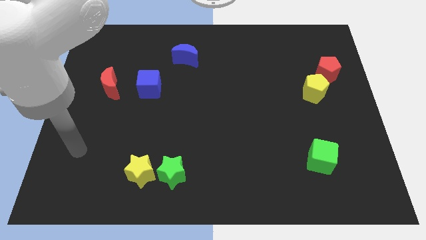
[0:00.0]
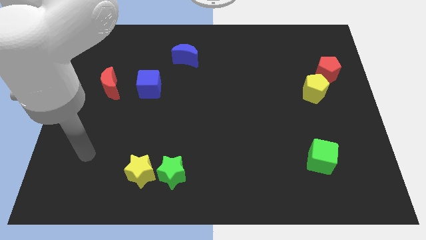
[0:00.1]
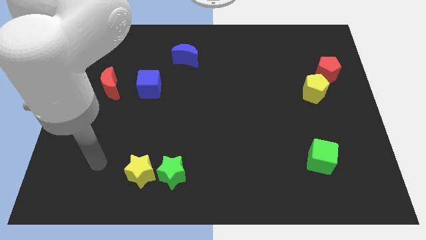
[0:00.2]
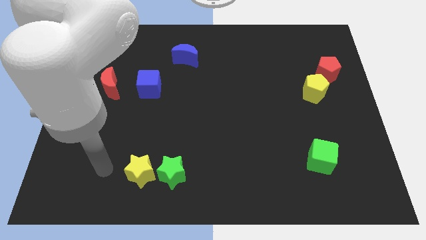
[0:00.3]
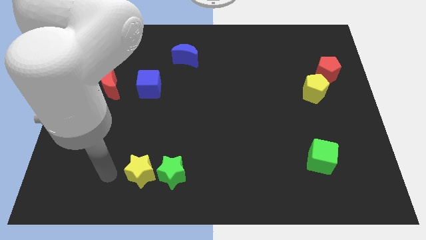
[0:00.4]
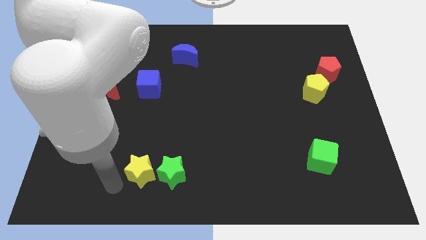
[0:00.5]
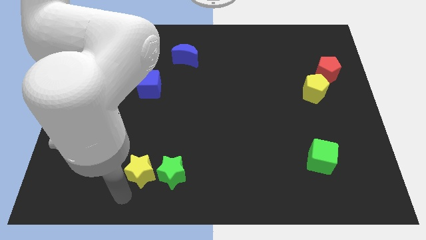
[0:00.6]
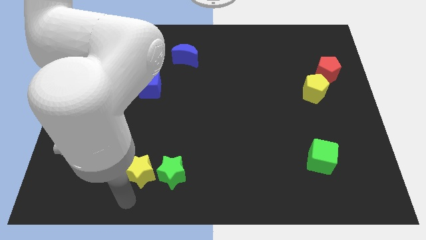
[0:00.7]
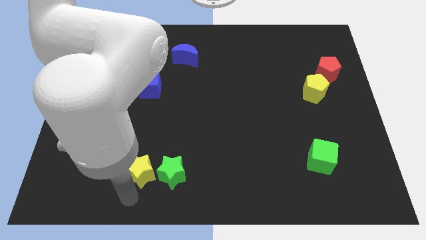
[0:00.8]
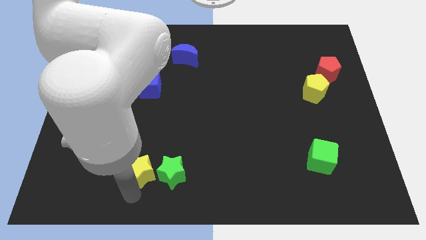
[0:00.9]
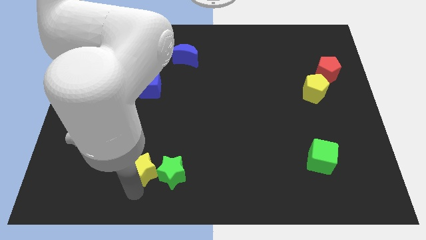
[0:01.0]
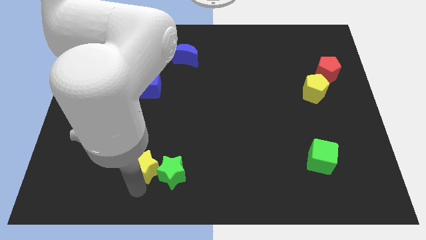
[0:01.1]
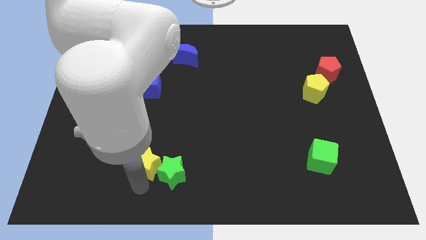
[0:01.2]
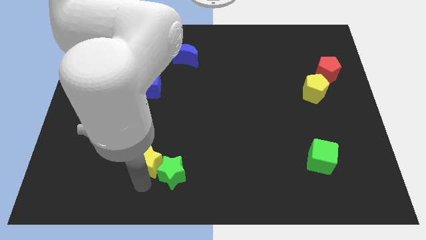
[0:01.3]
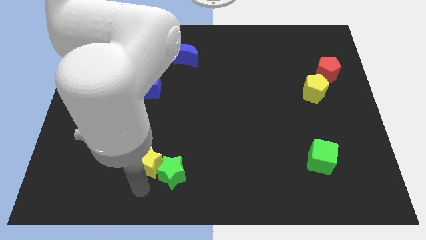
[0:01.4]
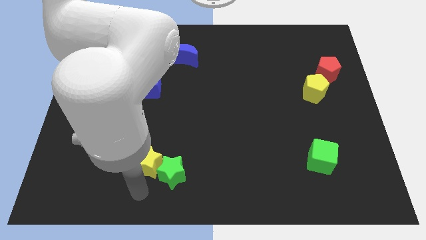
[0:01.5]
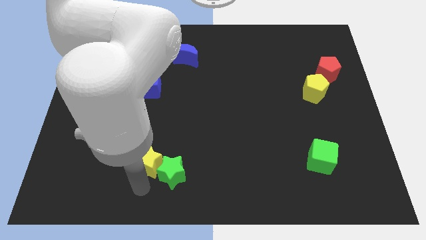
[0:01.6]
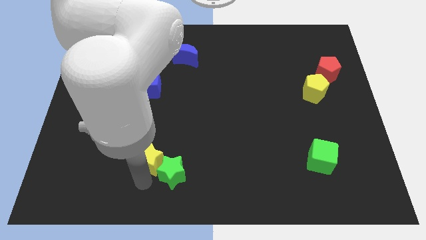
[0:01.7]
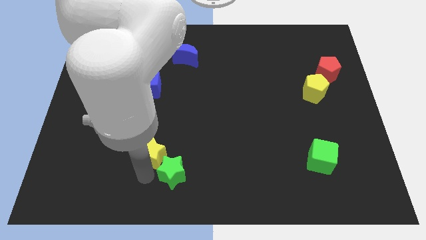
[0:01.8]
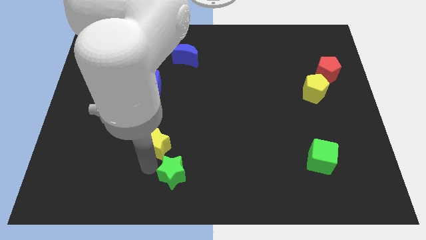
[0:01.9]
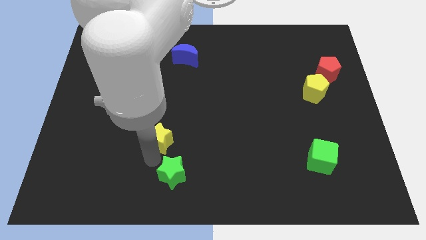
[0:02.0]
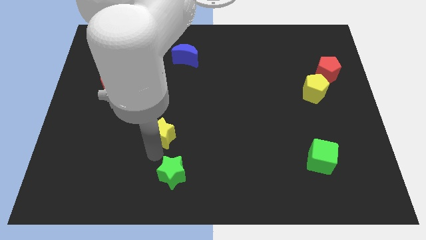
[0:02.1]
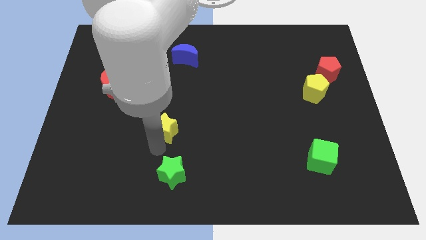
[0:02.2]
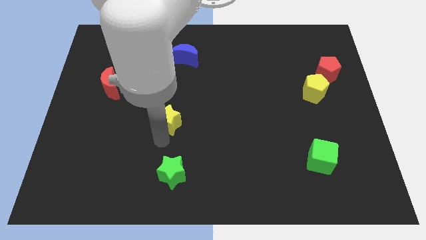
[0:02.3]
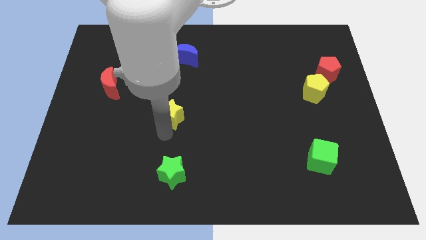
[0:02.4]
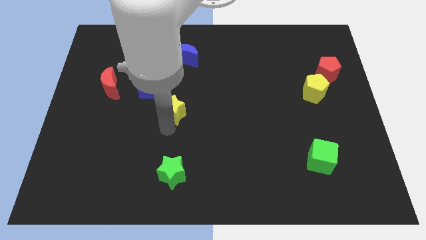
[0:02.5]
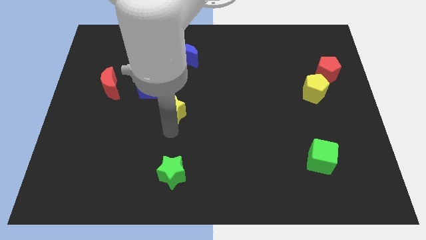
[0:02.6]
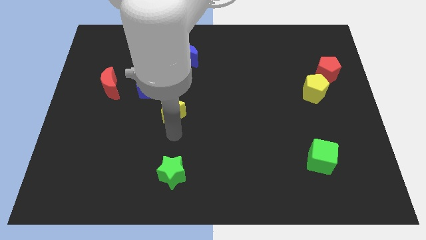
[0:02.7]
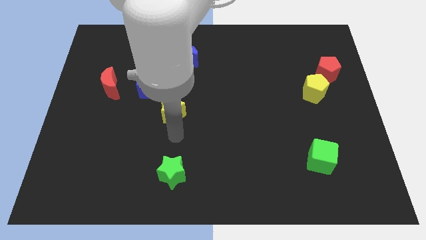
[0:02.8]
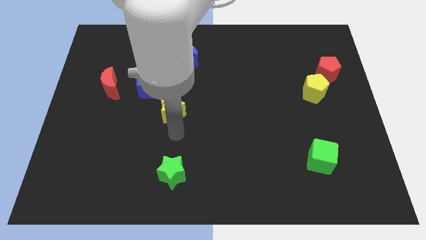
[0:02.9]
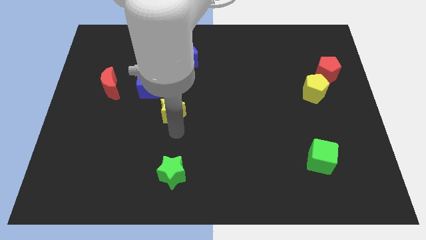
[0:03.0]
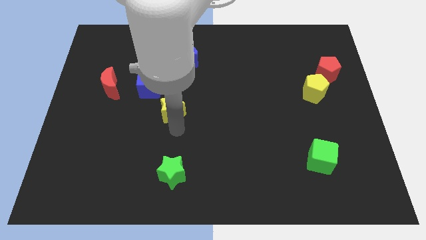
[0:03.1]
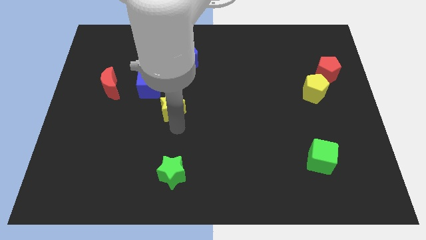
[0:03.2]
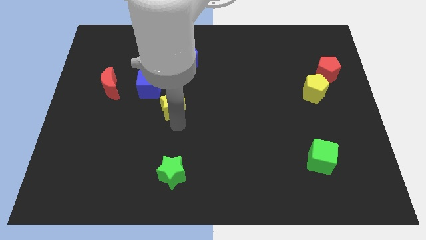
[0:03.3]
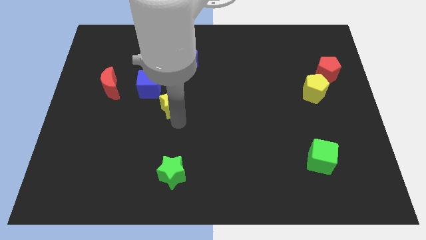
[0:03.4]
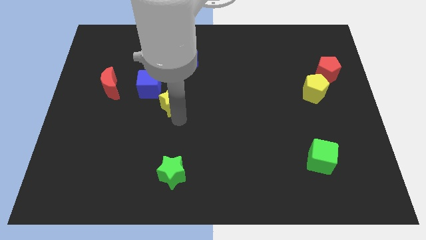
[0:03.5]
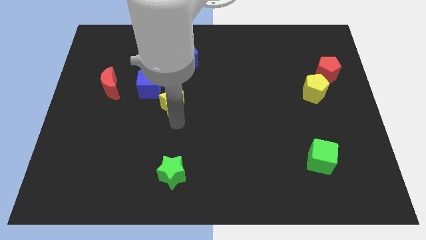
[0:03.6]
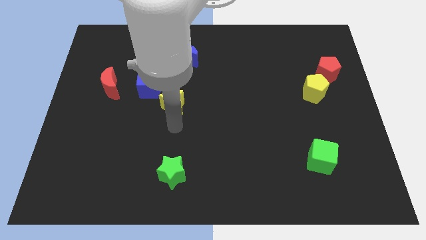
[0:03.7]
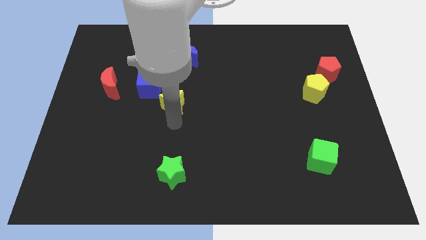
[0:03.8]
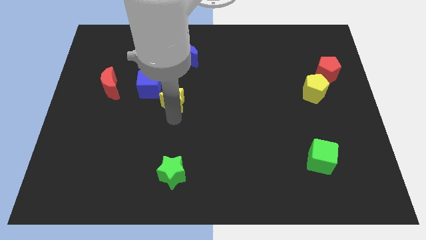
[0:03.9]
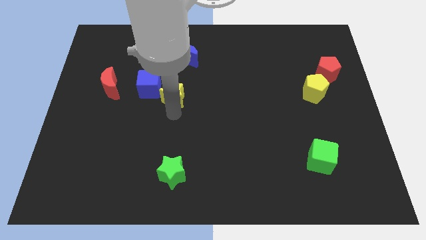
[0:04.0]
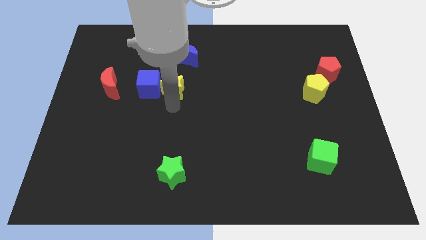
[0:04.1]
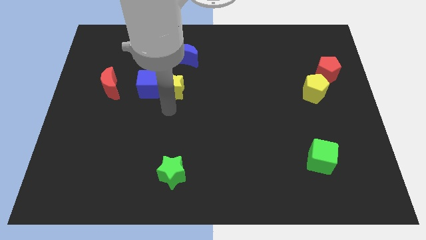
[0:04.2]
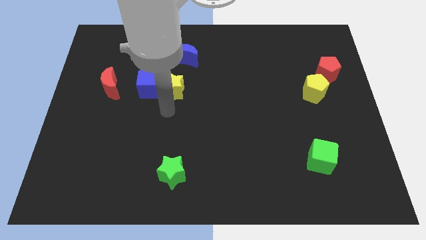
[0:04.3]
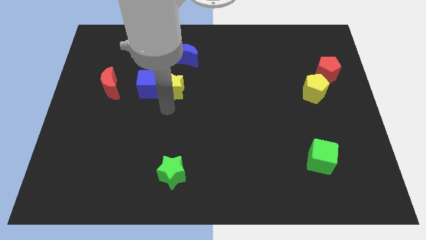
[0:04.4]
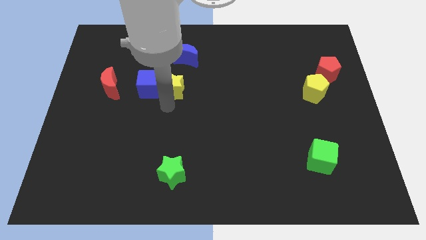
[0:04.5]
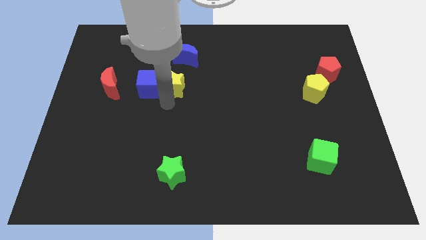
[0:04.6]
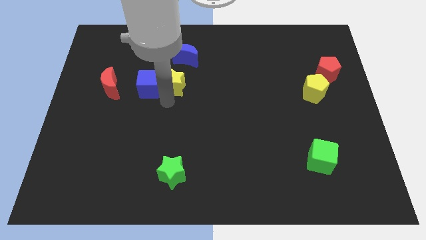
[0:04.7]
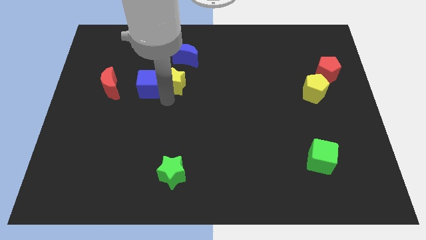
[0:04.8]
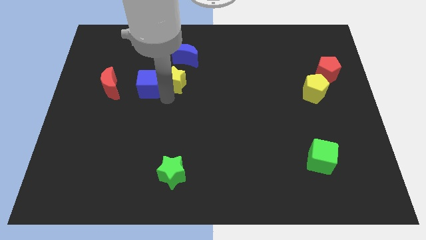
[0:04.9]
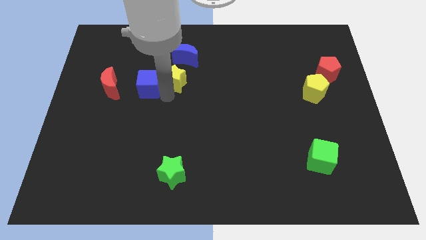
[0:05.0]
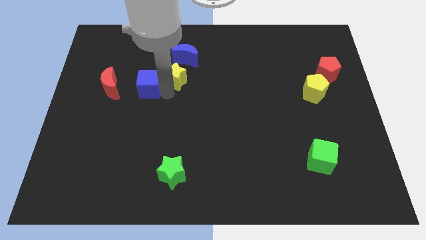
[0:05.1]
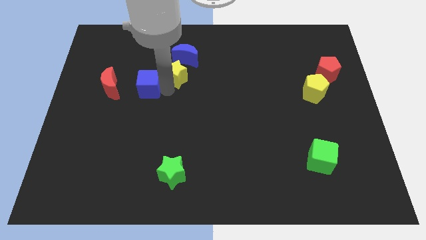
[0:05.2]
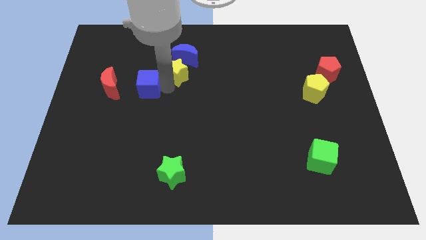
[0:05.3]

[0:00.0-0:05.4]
slide the yellow star to the blue moon

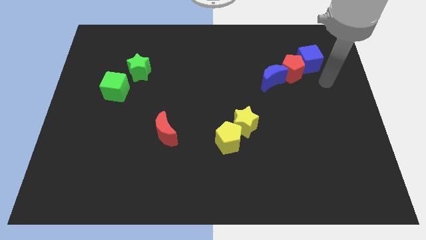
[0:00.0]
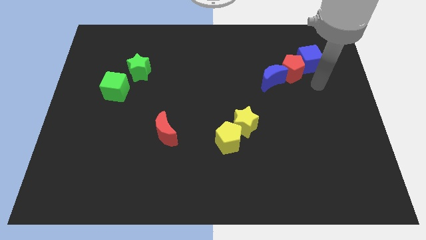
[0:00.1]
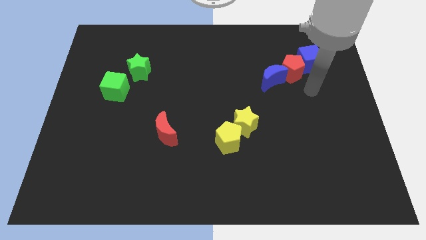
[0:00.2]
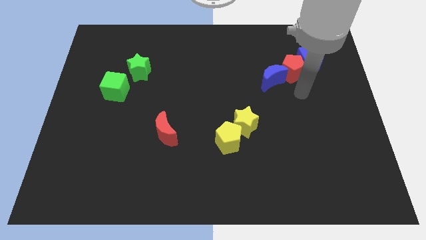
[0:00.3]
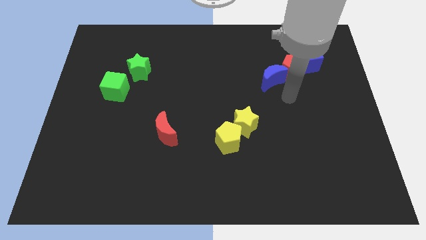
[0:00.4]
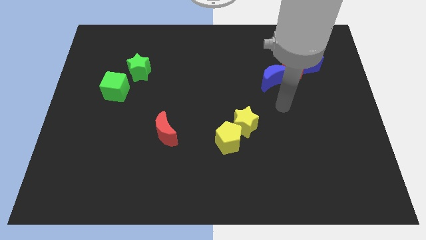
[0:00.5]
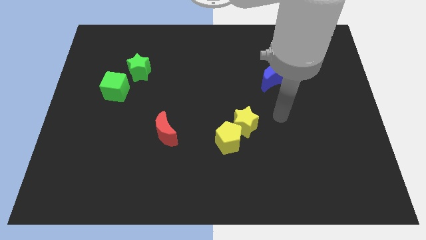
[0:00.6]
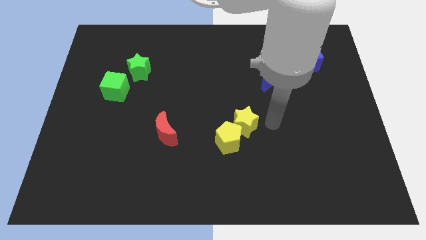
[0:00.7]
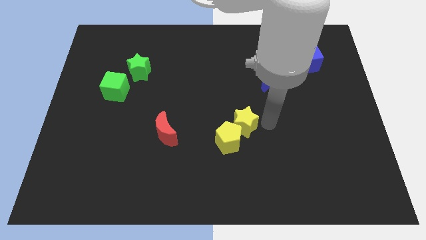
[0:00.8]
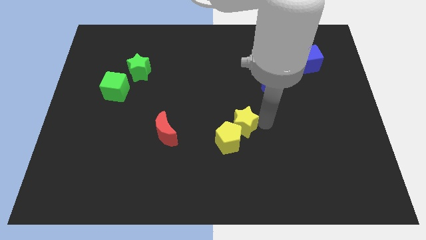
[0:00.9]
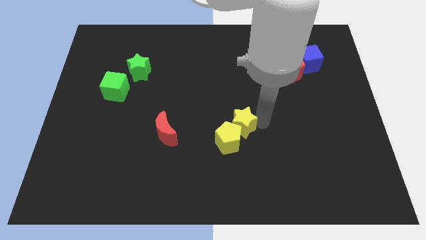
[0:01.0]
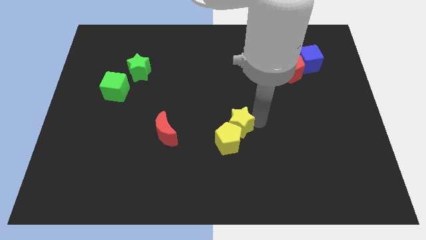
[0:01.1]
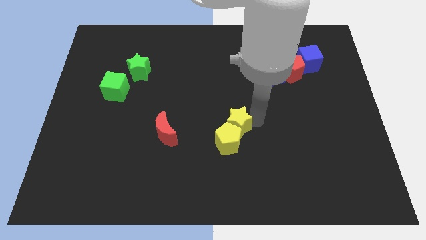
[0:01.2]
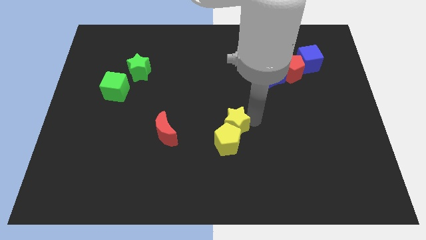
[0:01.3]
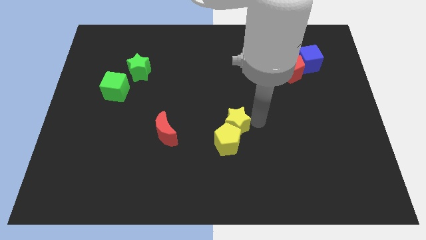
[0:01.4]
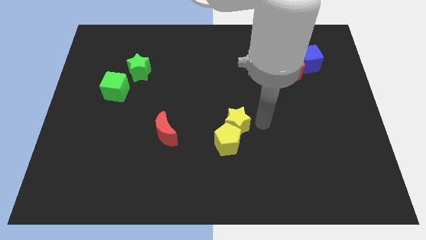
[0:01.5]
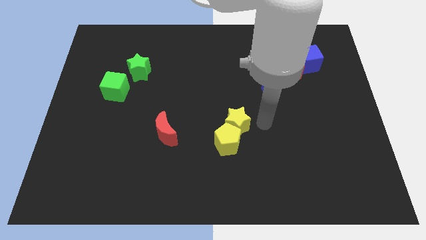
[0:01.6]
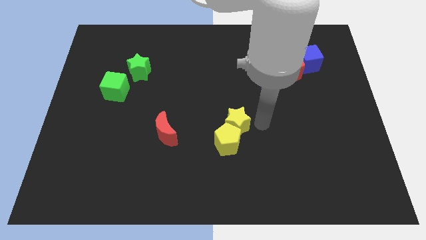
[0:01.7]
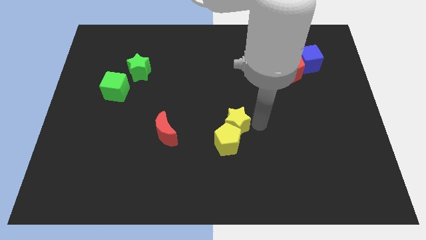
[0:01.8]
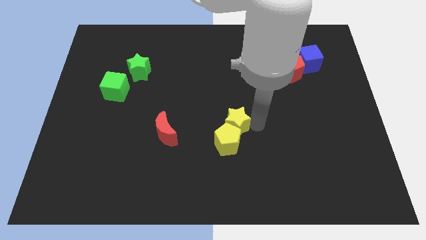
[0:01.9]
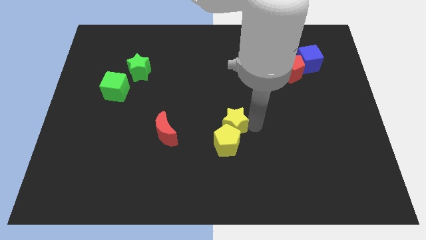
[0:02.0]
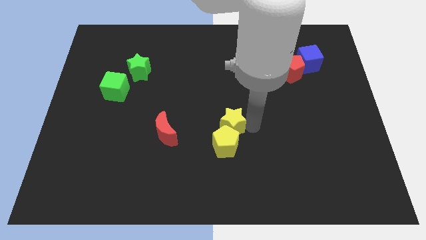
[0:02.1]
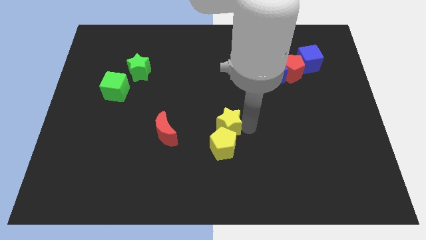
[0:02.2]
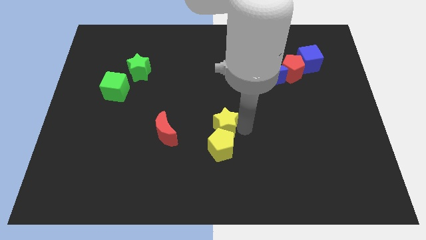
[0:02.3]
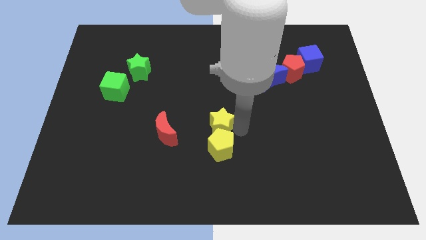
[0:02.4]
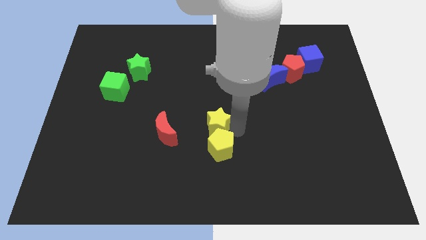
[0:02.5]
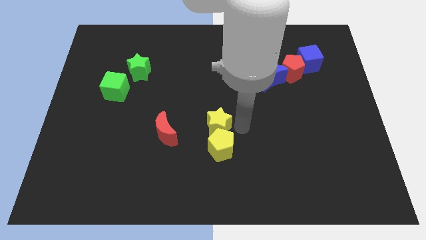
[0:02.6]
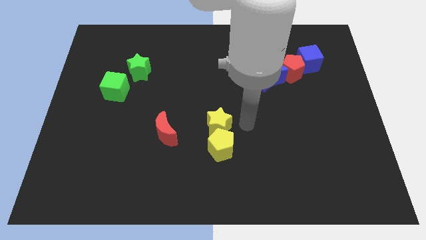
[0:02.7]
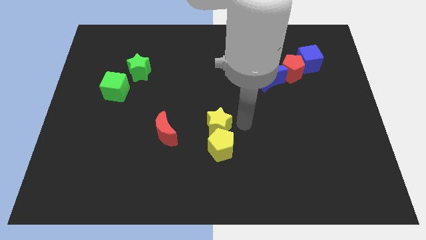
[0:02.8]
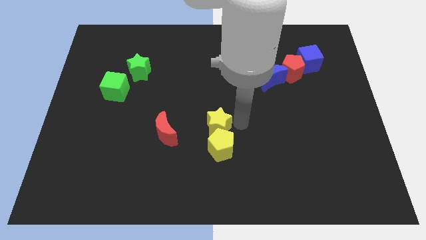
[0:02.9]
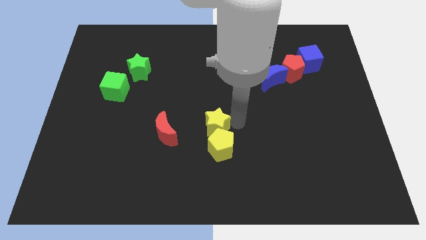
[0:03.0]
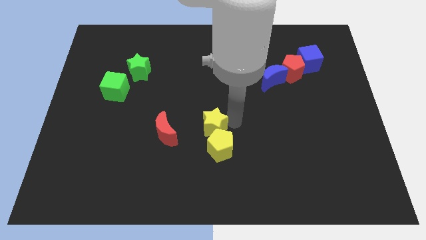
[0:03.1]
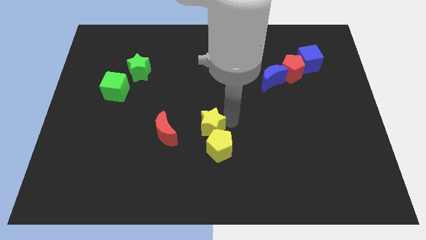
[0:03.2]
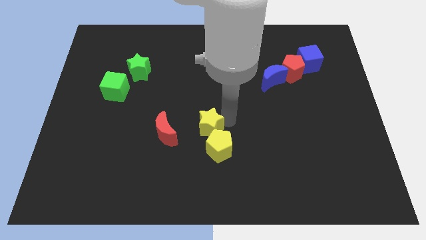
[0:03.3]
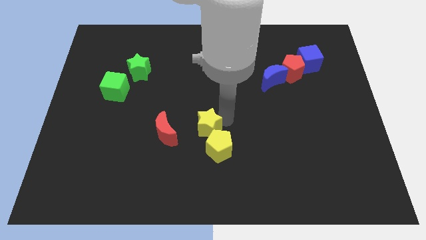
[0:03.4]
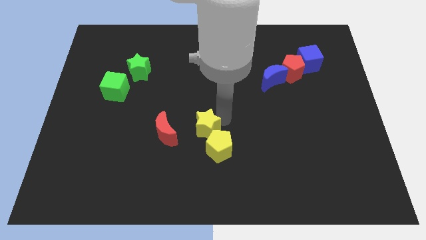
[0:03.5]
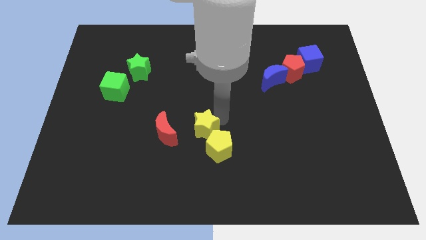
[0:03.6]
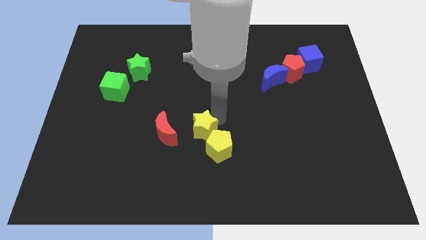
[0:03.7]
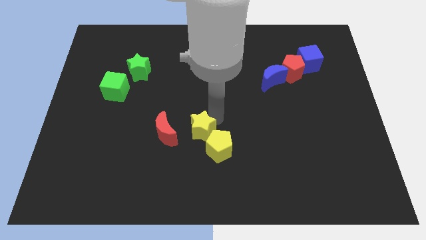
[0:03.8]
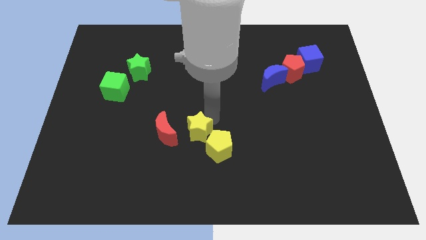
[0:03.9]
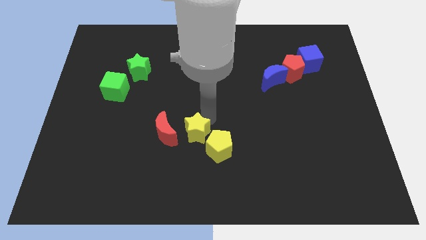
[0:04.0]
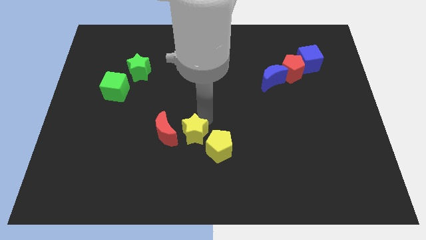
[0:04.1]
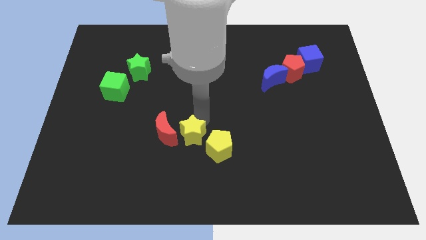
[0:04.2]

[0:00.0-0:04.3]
slide the yellow star to the red moon
